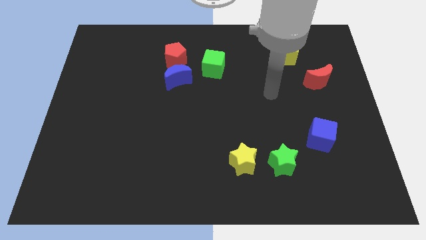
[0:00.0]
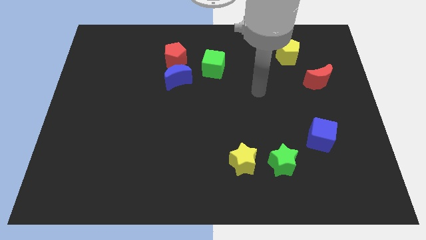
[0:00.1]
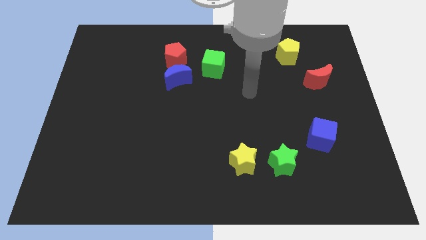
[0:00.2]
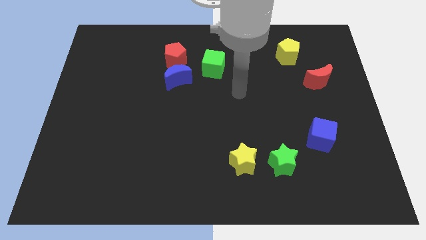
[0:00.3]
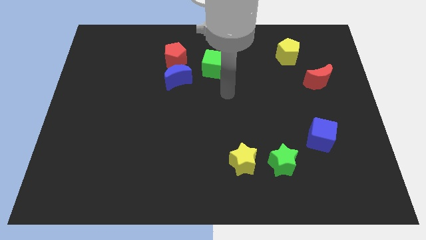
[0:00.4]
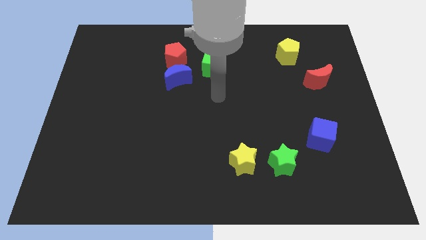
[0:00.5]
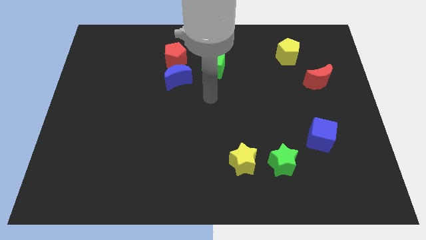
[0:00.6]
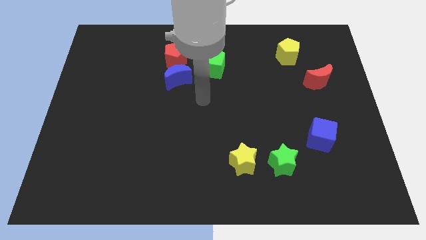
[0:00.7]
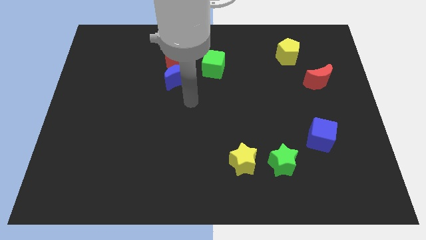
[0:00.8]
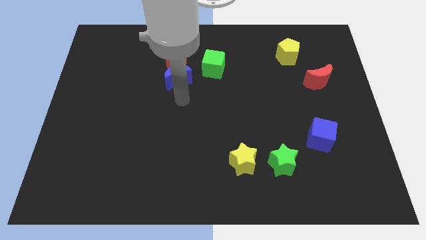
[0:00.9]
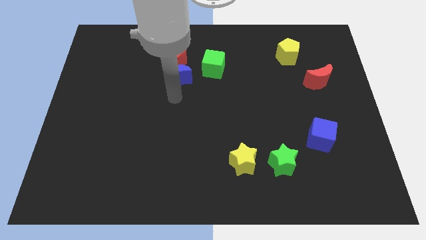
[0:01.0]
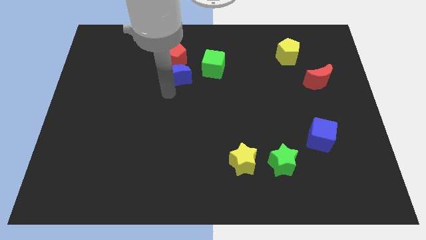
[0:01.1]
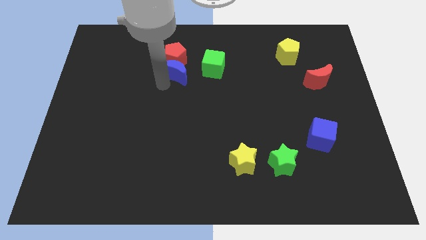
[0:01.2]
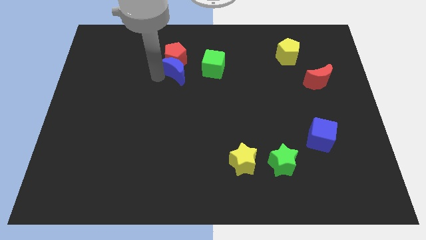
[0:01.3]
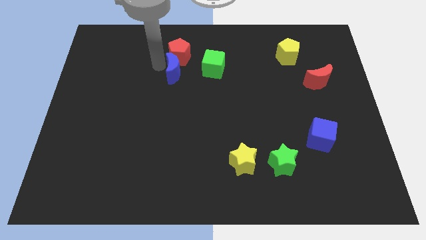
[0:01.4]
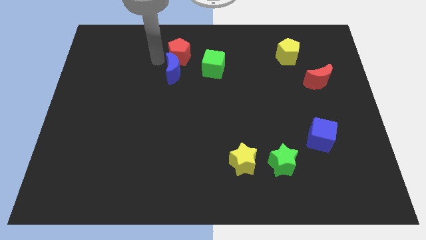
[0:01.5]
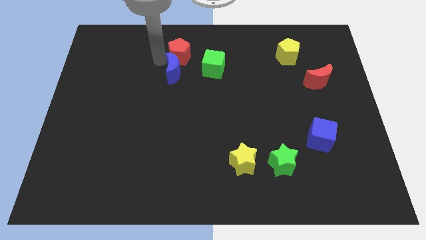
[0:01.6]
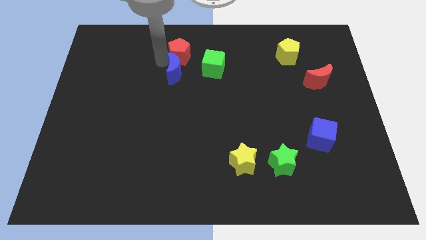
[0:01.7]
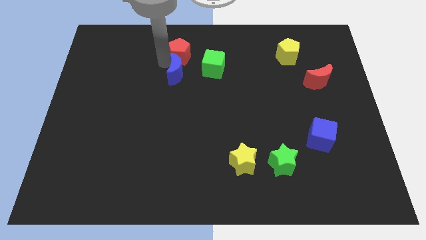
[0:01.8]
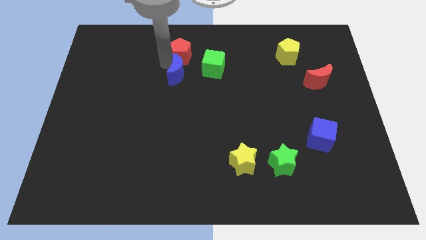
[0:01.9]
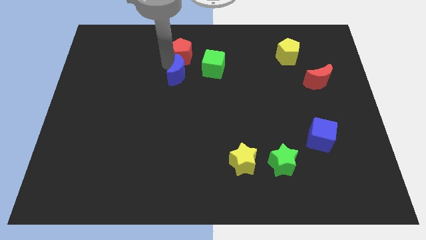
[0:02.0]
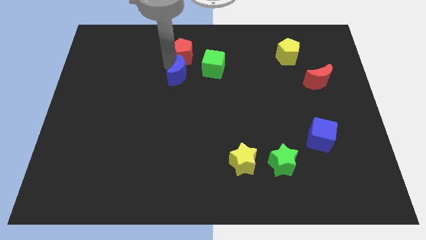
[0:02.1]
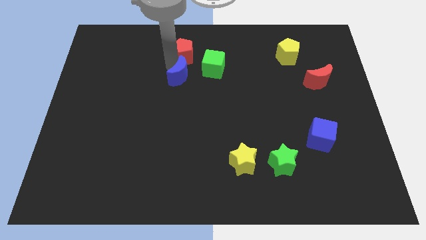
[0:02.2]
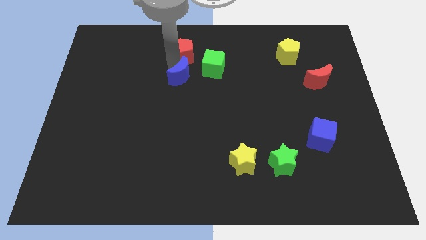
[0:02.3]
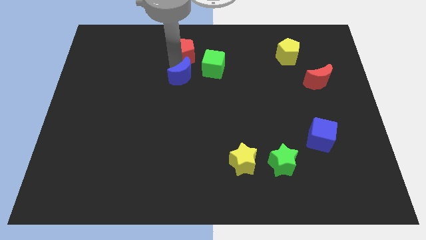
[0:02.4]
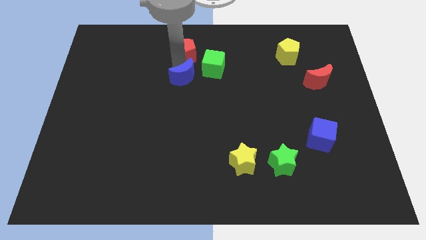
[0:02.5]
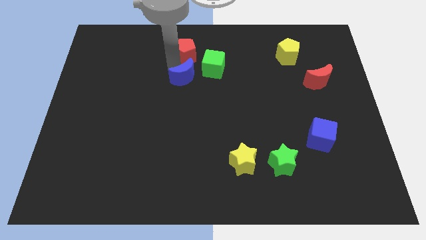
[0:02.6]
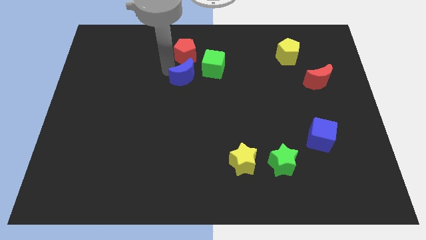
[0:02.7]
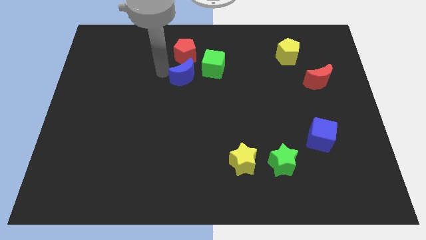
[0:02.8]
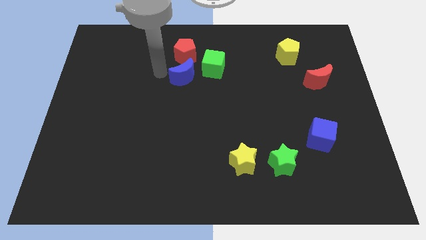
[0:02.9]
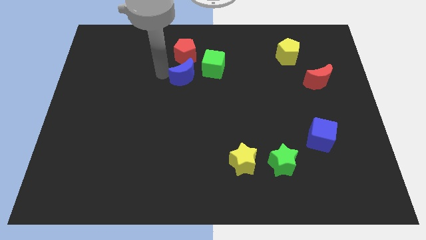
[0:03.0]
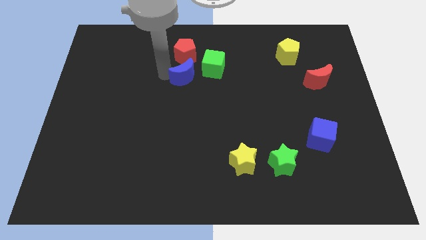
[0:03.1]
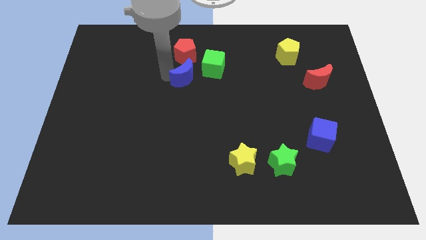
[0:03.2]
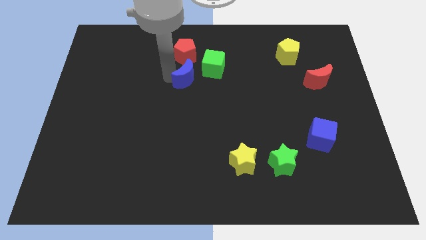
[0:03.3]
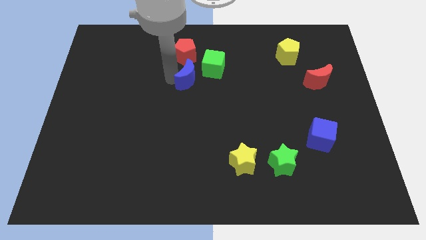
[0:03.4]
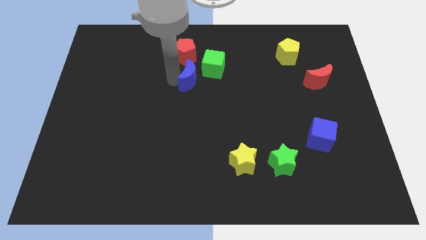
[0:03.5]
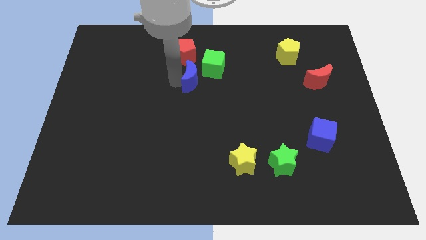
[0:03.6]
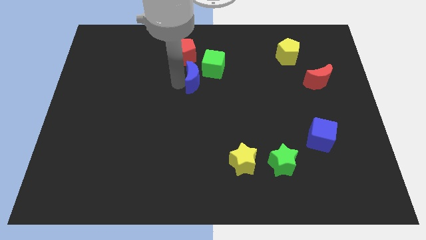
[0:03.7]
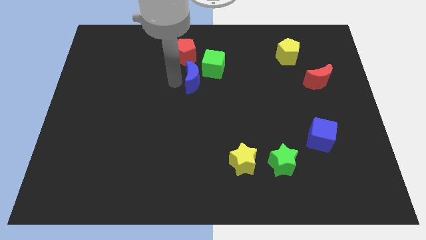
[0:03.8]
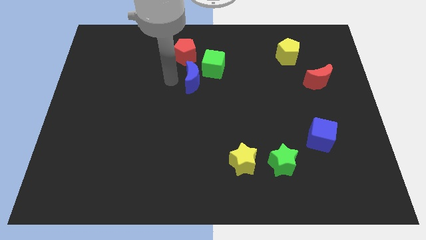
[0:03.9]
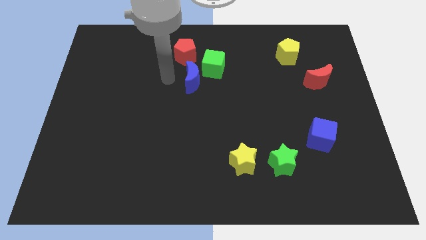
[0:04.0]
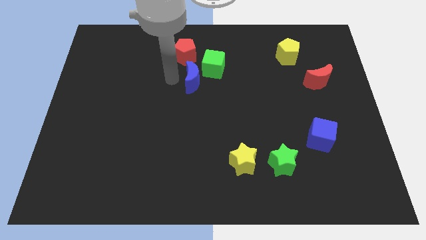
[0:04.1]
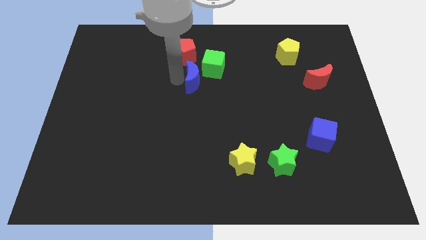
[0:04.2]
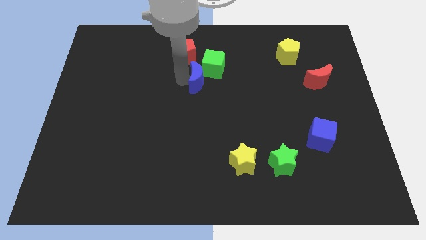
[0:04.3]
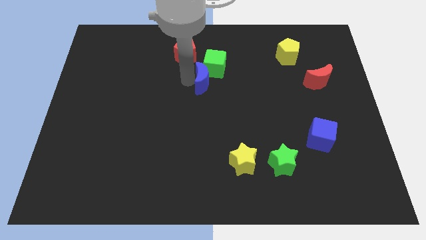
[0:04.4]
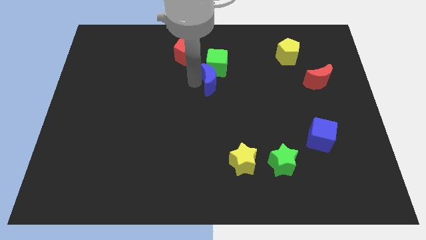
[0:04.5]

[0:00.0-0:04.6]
push the blue moon to the right a little

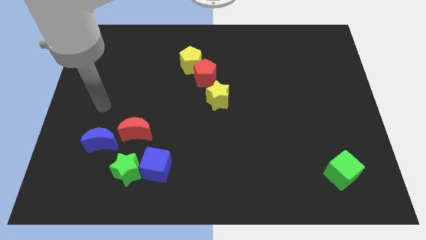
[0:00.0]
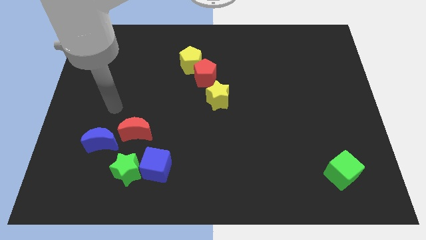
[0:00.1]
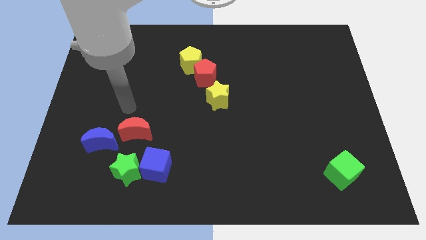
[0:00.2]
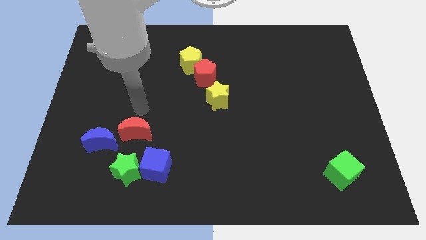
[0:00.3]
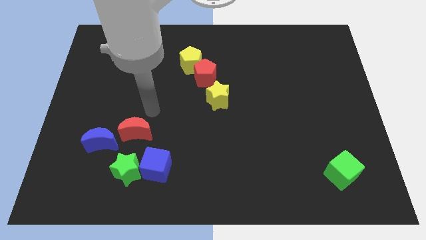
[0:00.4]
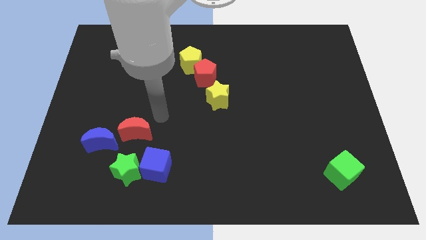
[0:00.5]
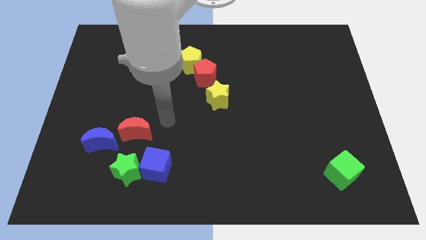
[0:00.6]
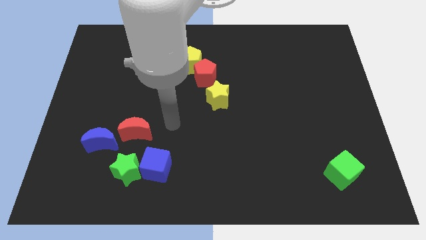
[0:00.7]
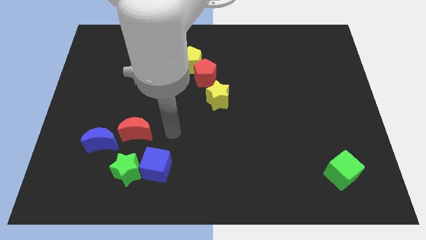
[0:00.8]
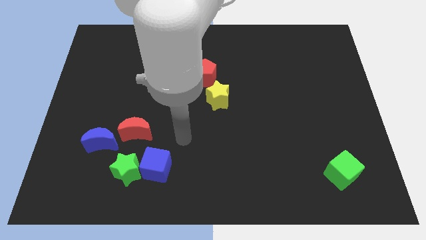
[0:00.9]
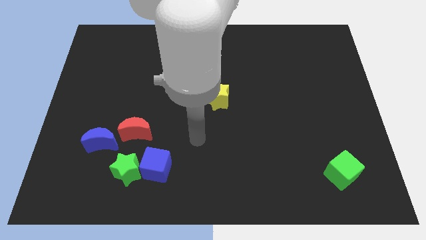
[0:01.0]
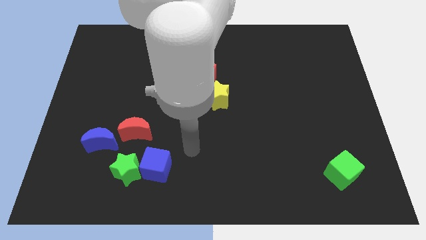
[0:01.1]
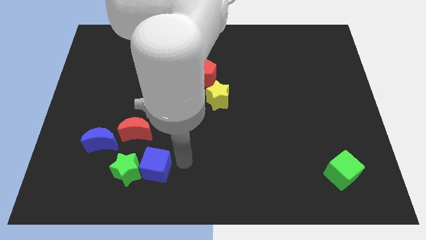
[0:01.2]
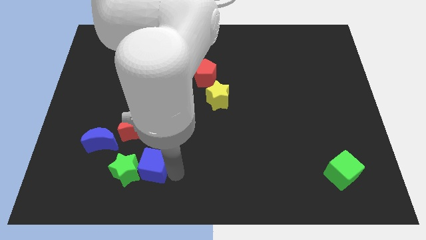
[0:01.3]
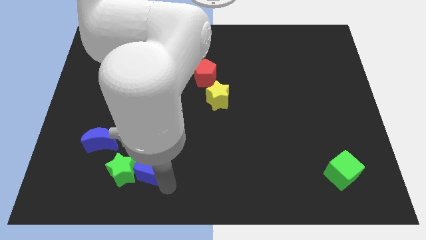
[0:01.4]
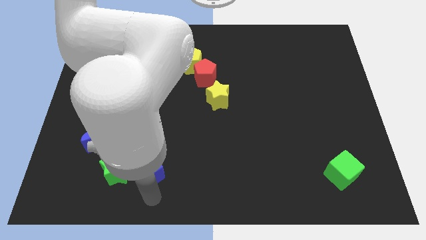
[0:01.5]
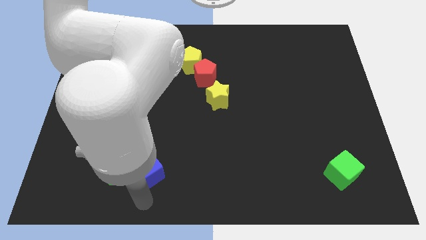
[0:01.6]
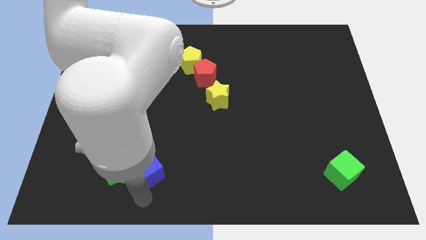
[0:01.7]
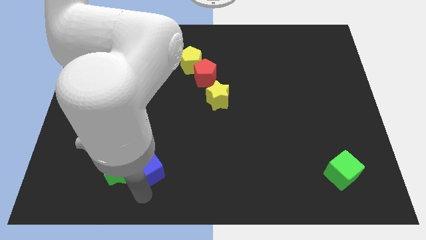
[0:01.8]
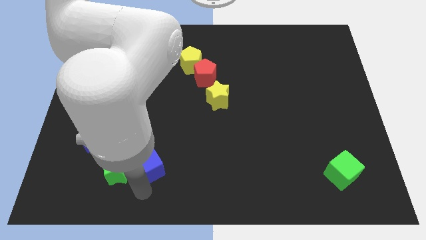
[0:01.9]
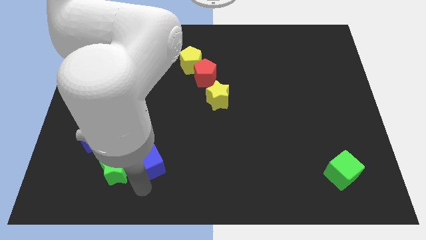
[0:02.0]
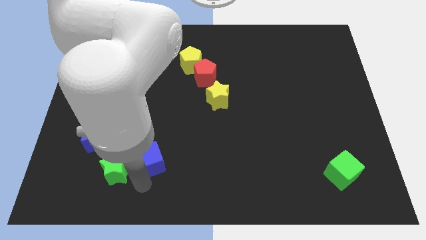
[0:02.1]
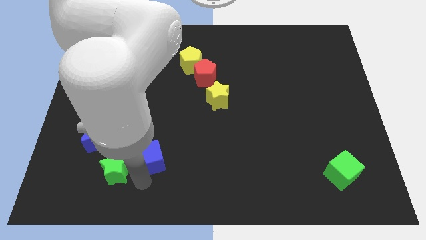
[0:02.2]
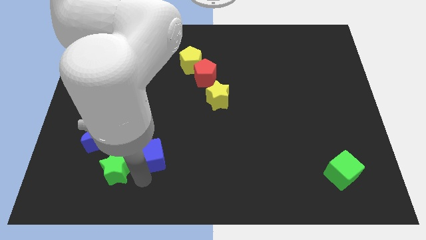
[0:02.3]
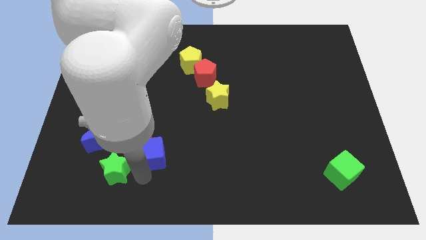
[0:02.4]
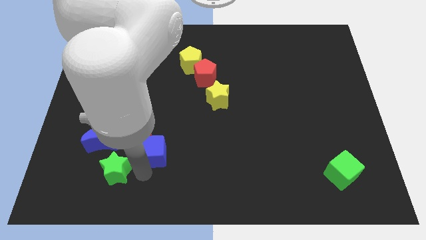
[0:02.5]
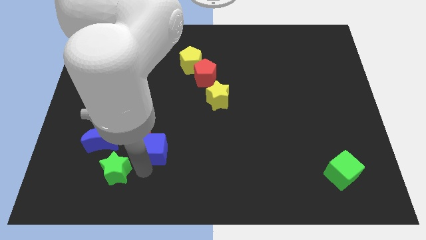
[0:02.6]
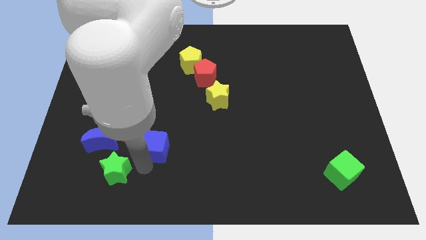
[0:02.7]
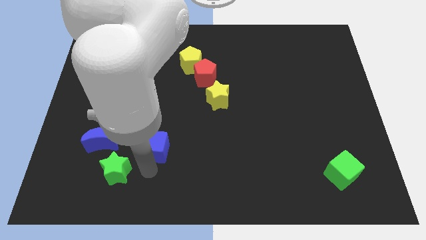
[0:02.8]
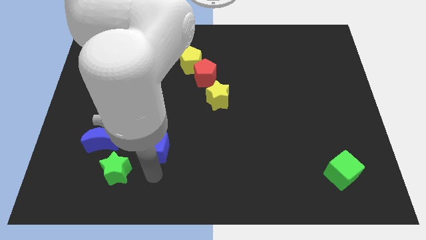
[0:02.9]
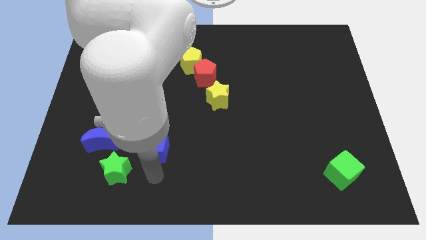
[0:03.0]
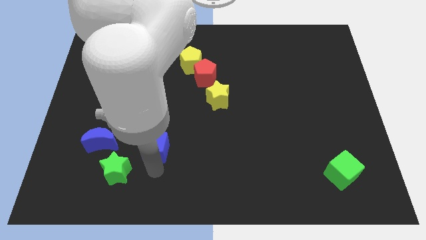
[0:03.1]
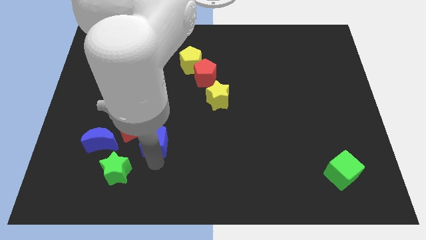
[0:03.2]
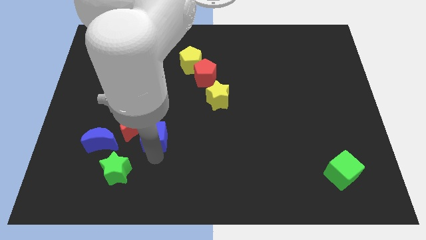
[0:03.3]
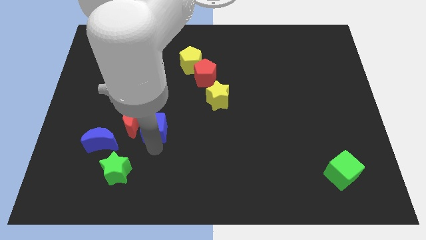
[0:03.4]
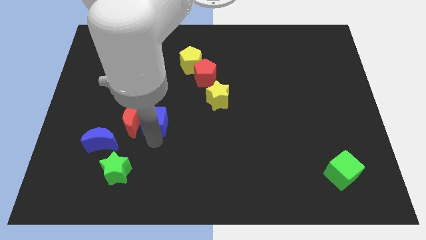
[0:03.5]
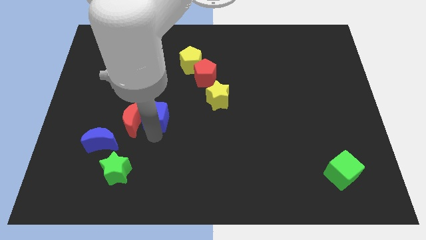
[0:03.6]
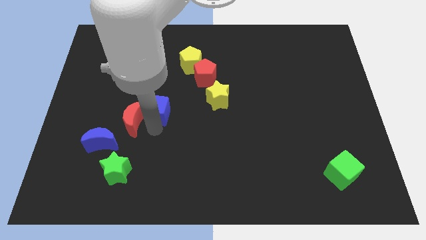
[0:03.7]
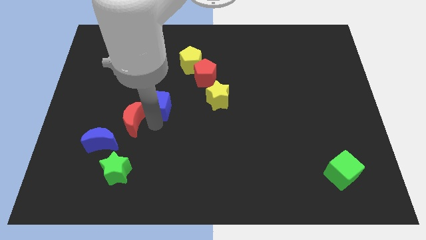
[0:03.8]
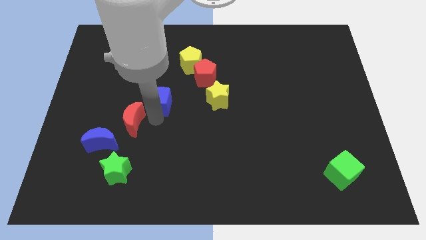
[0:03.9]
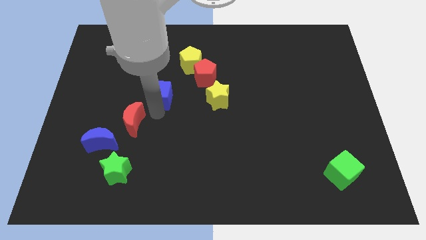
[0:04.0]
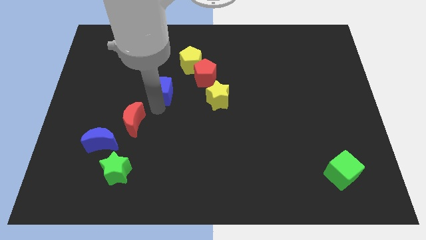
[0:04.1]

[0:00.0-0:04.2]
push the blue cube up
